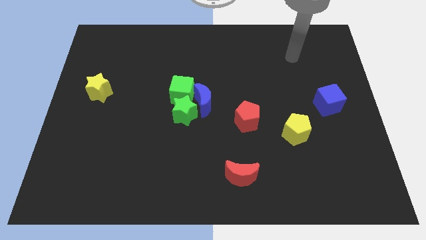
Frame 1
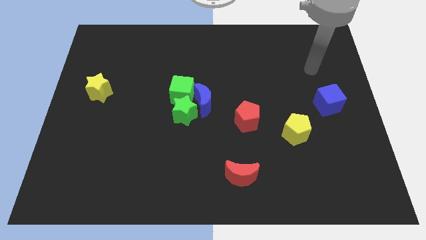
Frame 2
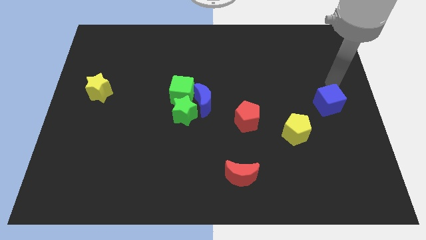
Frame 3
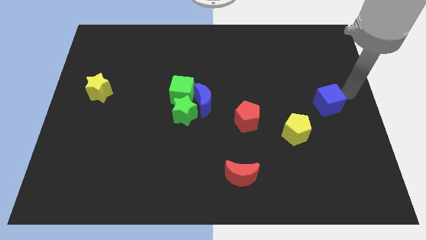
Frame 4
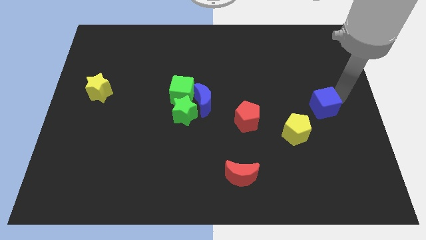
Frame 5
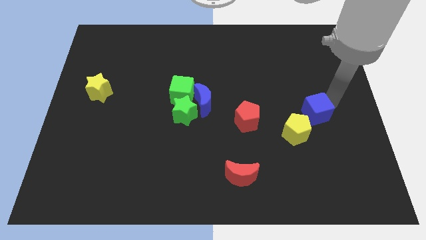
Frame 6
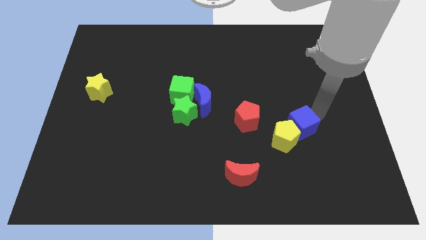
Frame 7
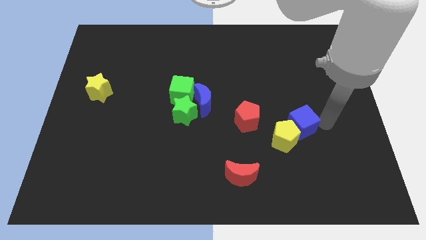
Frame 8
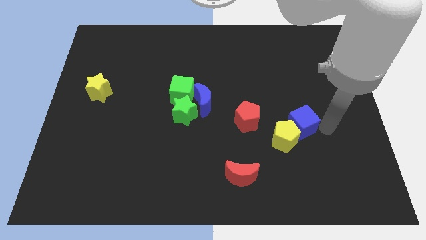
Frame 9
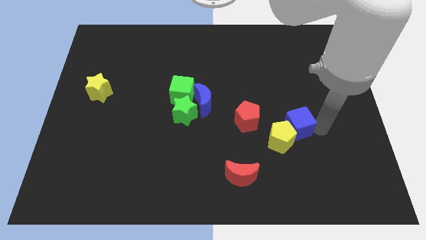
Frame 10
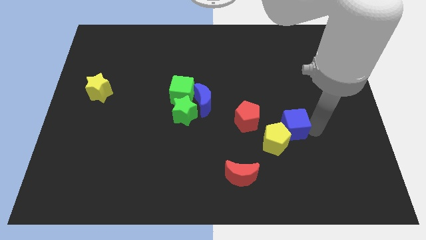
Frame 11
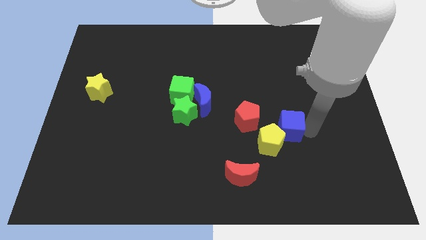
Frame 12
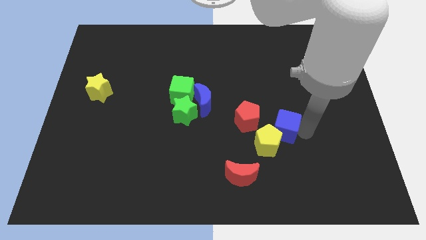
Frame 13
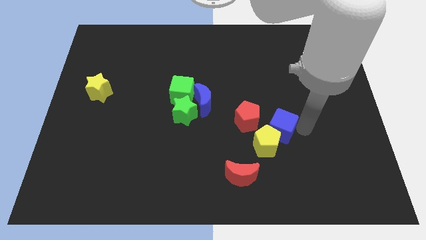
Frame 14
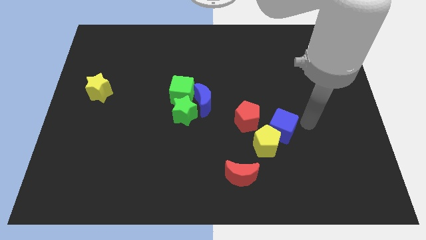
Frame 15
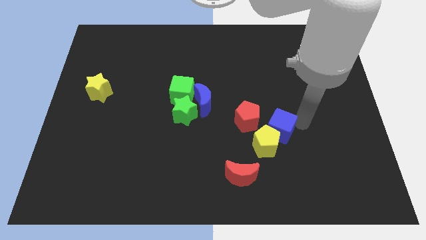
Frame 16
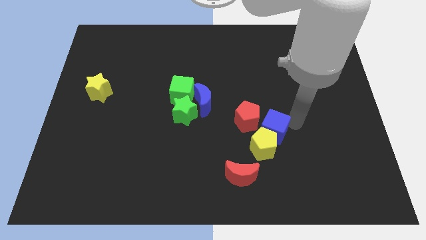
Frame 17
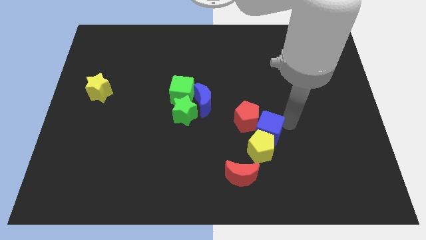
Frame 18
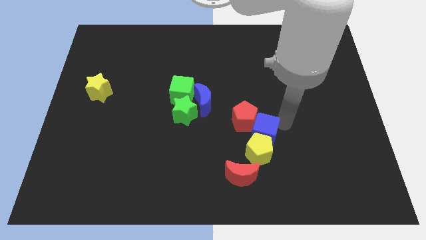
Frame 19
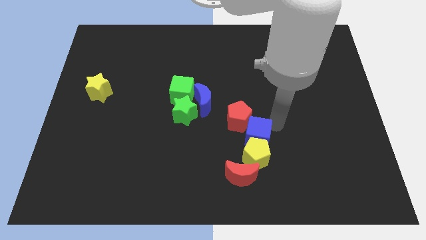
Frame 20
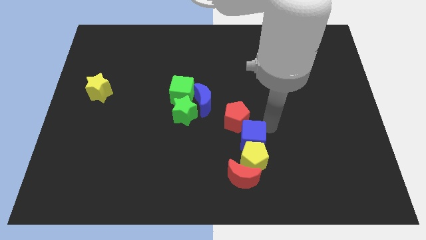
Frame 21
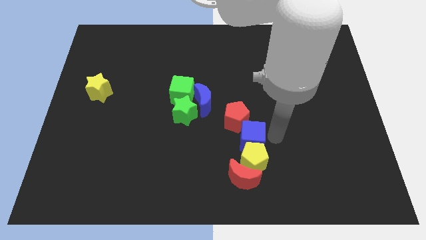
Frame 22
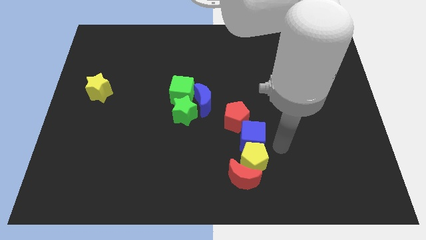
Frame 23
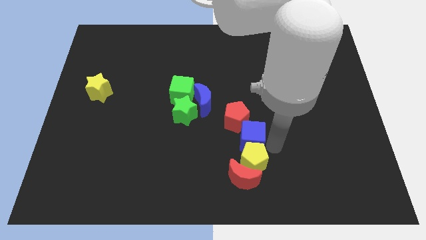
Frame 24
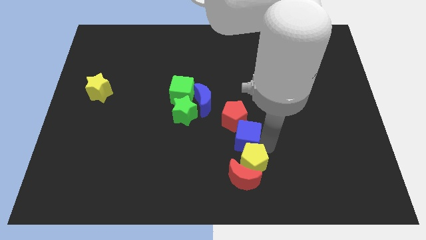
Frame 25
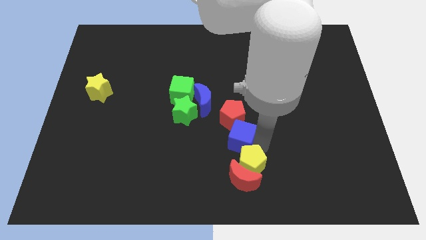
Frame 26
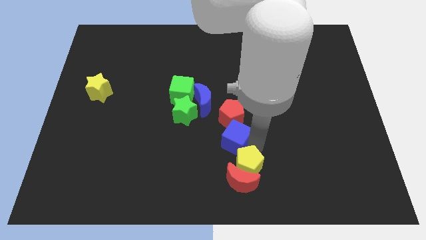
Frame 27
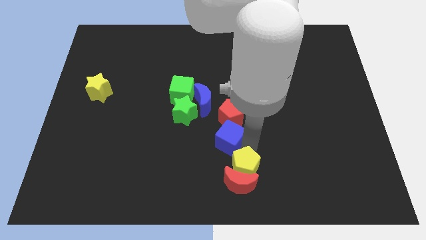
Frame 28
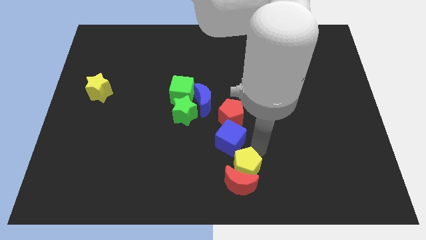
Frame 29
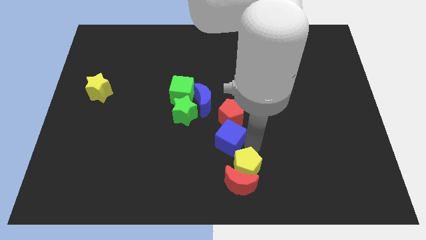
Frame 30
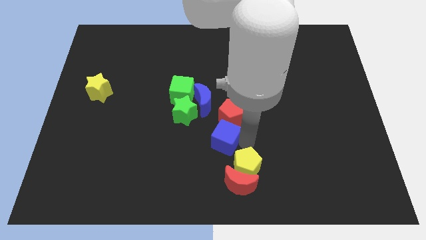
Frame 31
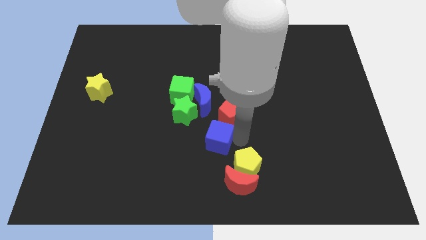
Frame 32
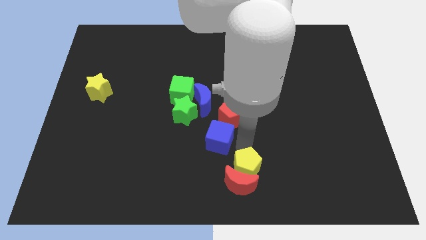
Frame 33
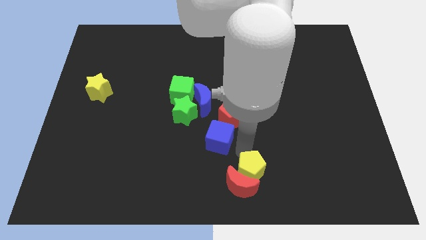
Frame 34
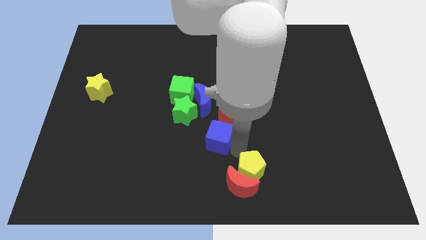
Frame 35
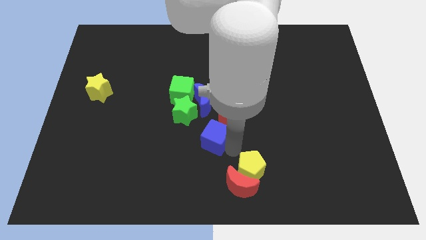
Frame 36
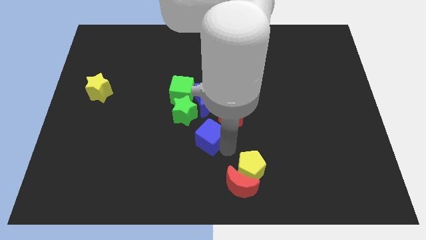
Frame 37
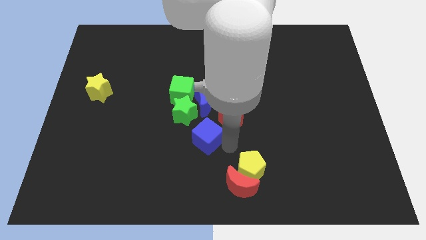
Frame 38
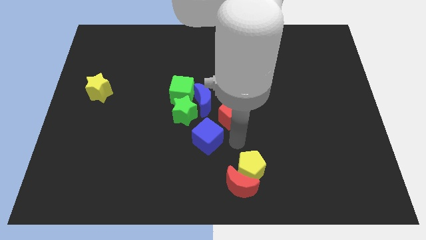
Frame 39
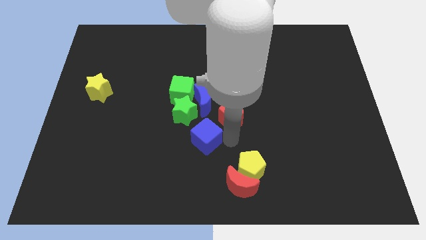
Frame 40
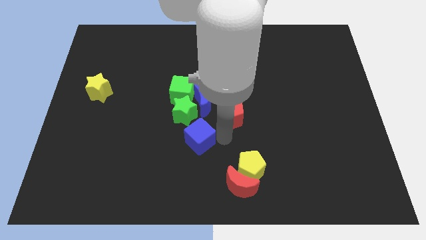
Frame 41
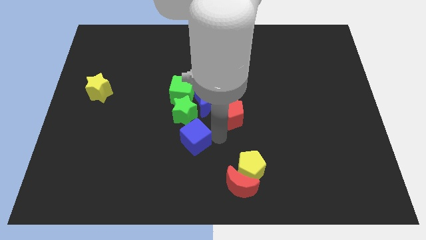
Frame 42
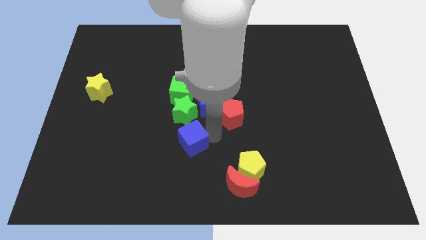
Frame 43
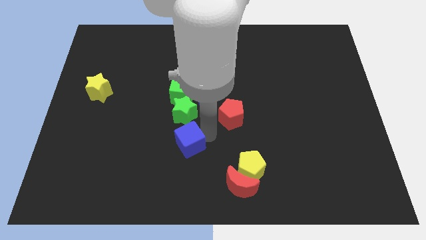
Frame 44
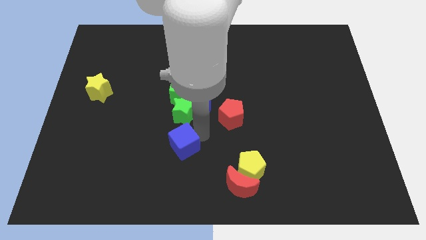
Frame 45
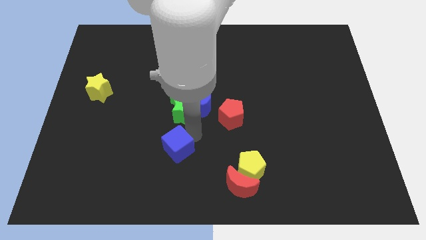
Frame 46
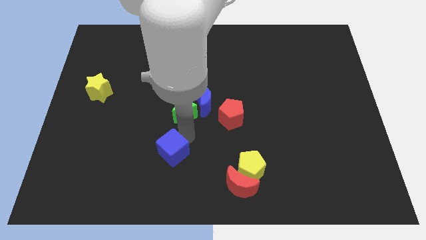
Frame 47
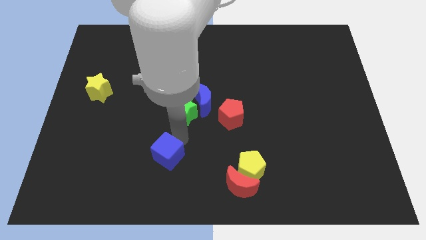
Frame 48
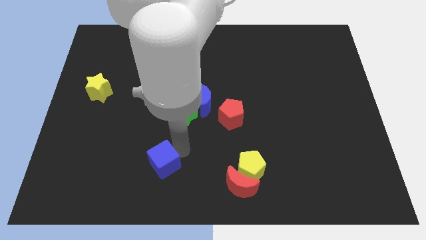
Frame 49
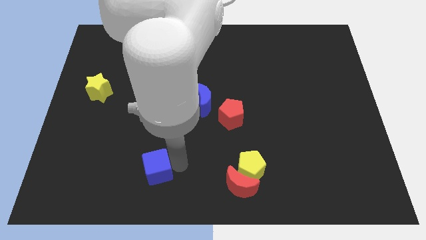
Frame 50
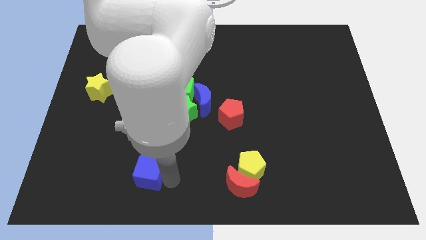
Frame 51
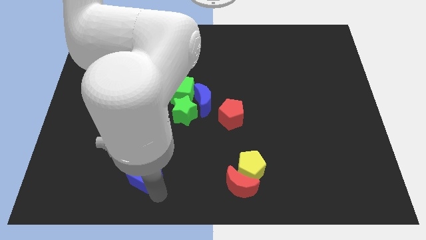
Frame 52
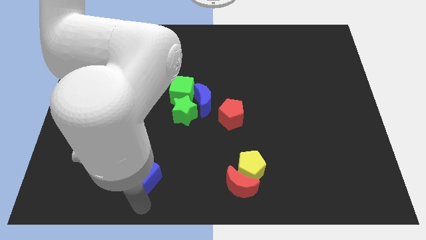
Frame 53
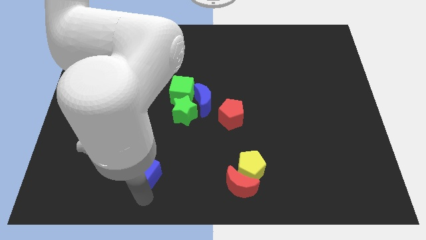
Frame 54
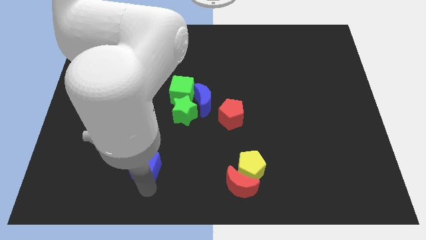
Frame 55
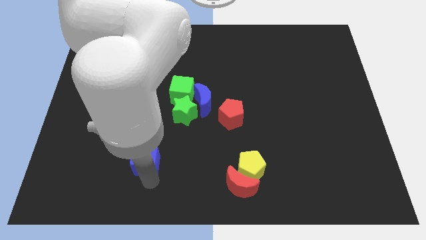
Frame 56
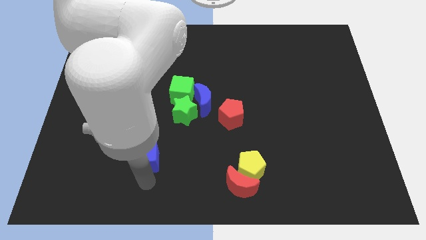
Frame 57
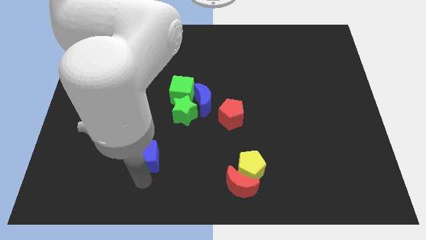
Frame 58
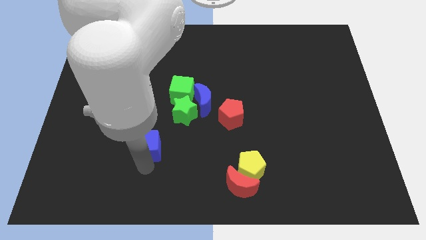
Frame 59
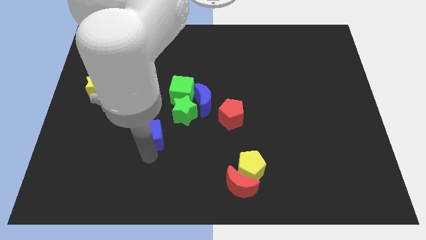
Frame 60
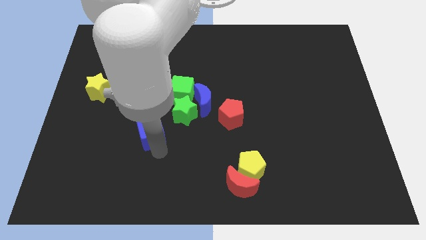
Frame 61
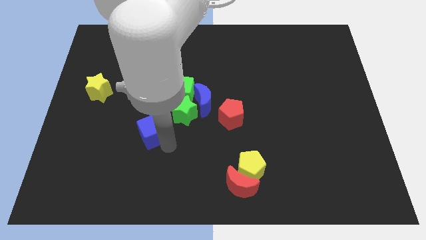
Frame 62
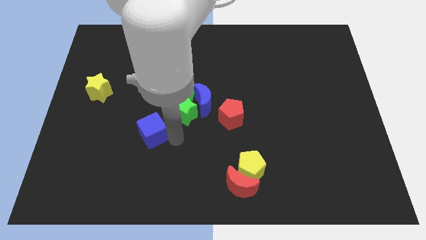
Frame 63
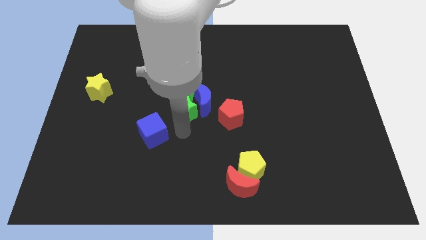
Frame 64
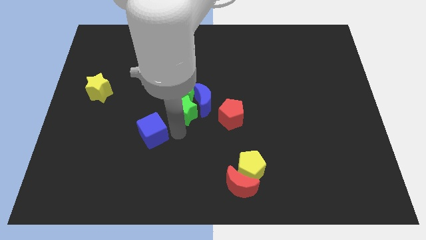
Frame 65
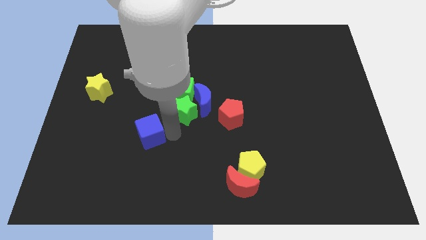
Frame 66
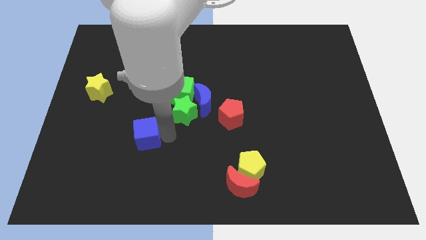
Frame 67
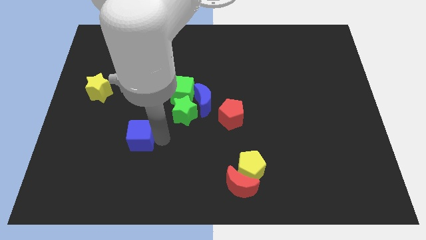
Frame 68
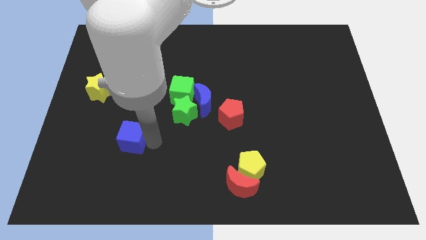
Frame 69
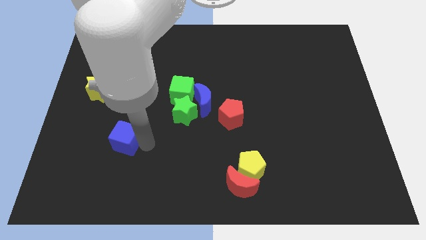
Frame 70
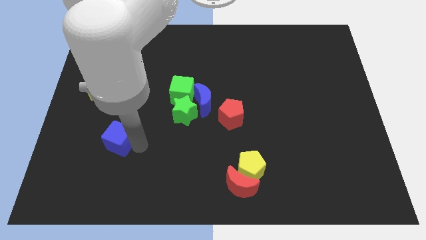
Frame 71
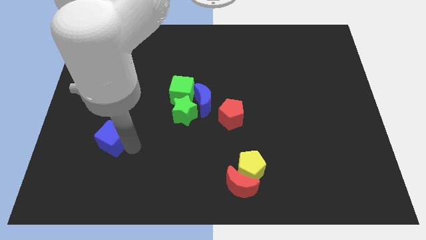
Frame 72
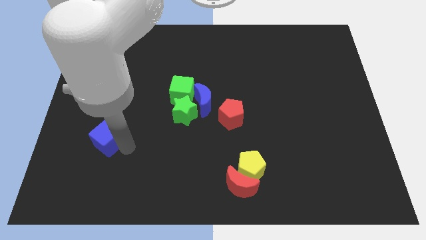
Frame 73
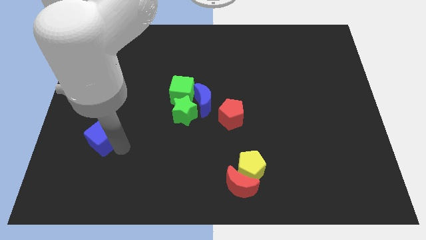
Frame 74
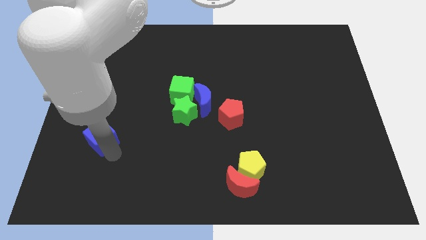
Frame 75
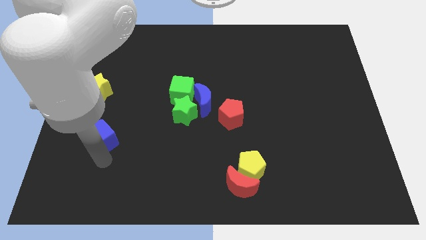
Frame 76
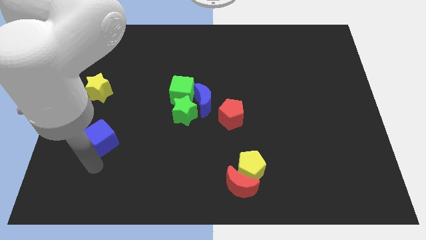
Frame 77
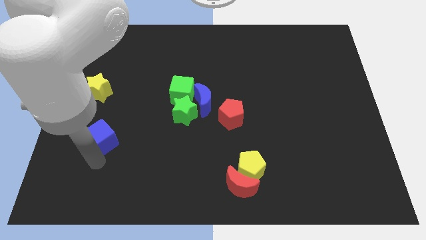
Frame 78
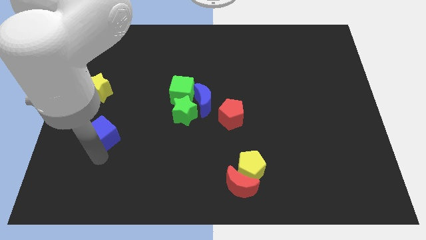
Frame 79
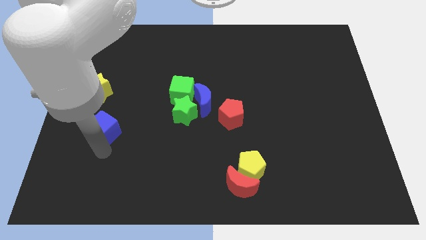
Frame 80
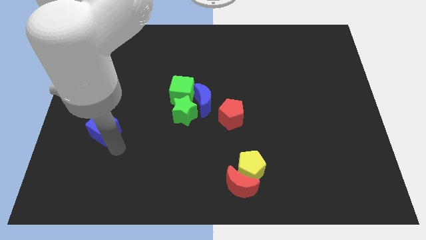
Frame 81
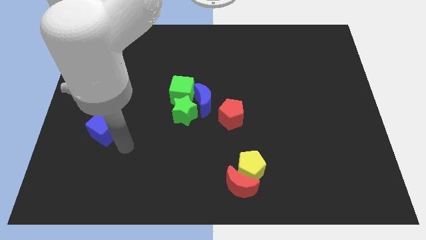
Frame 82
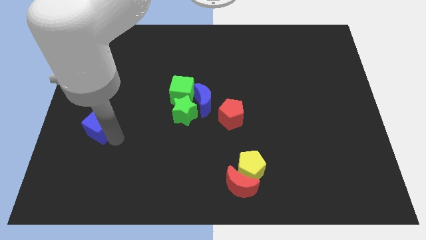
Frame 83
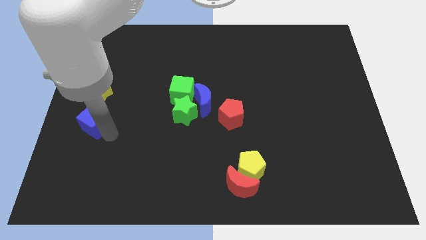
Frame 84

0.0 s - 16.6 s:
move the blue cube to the left side of the board
